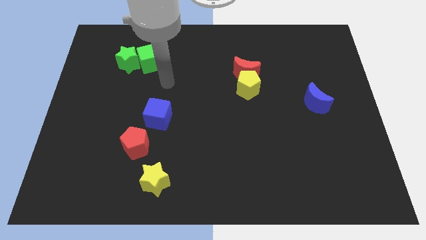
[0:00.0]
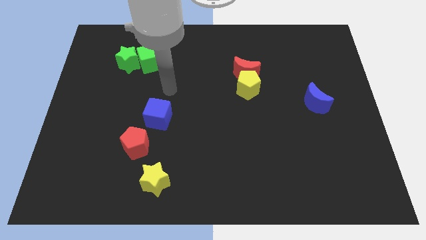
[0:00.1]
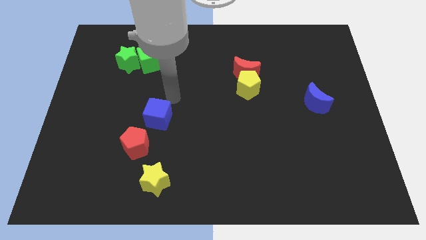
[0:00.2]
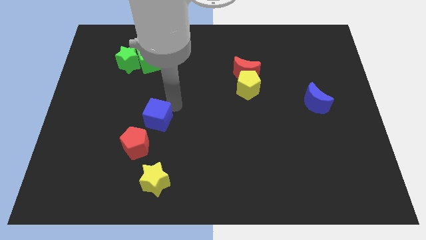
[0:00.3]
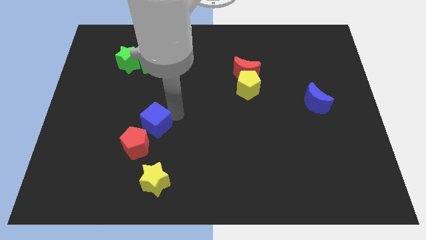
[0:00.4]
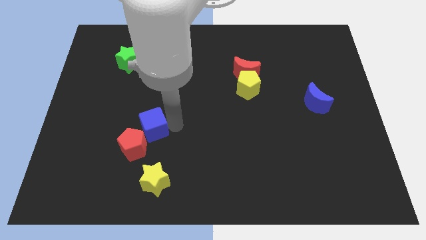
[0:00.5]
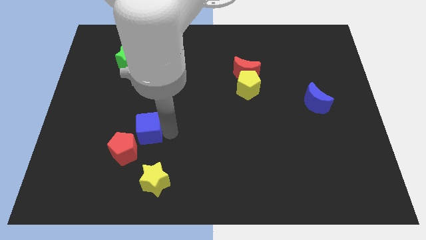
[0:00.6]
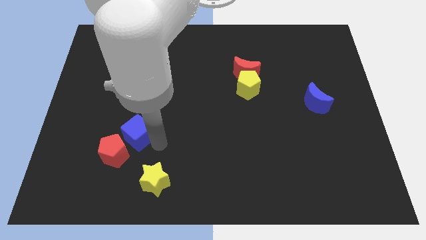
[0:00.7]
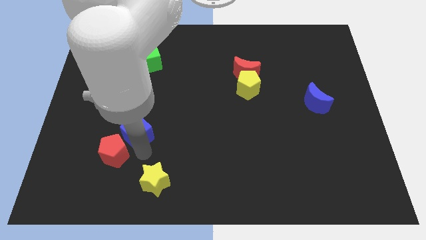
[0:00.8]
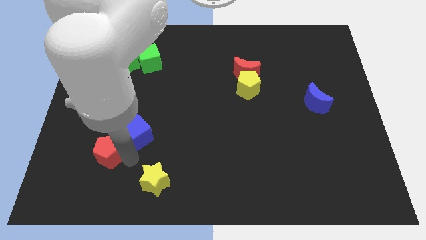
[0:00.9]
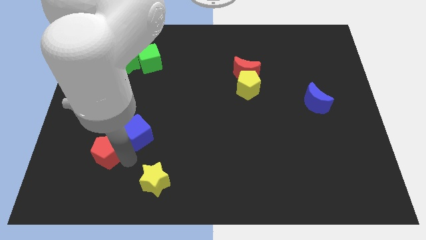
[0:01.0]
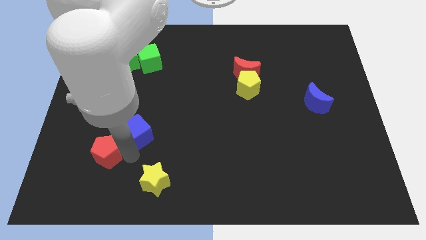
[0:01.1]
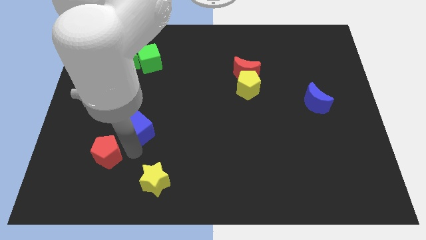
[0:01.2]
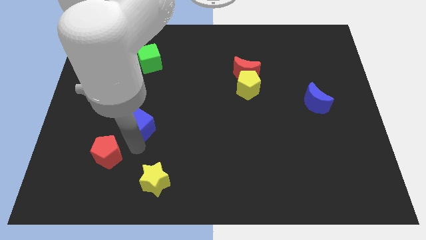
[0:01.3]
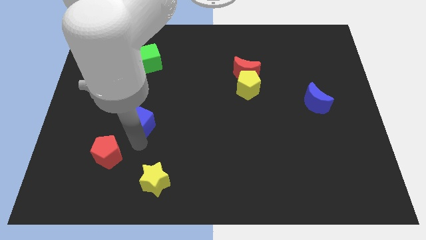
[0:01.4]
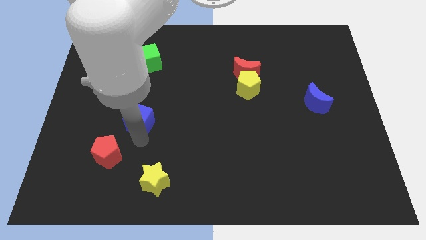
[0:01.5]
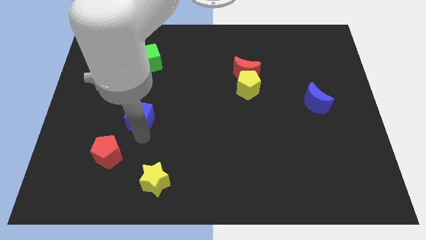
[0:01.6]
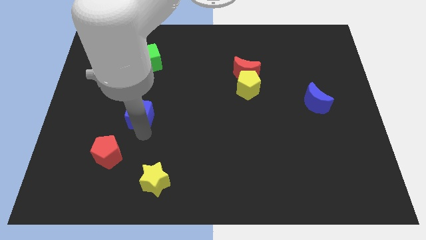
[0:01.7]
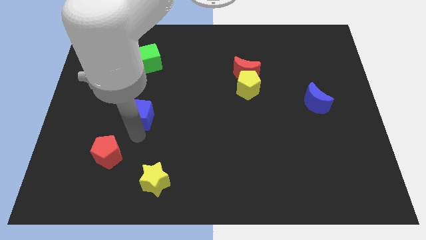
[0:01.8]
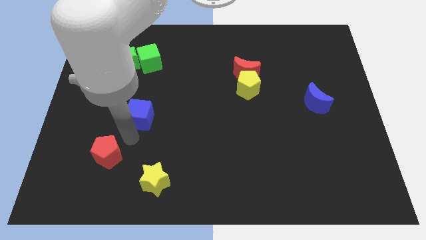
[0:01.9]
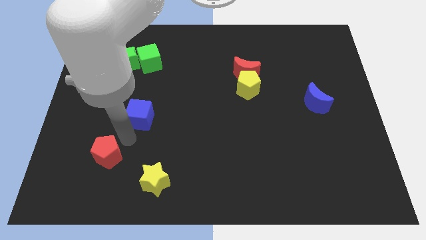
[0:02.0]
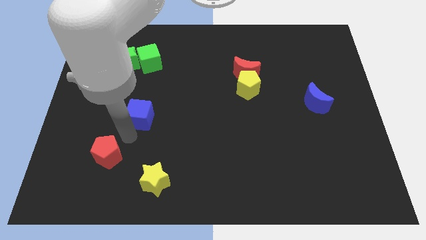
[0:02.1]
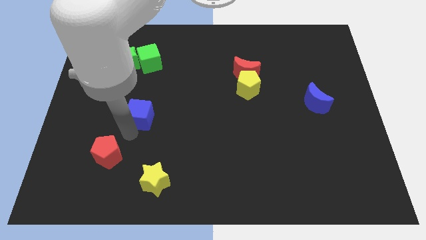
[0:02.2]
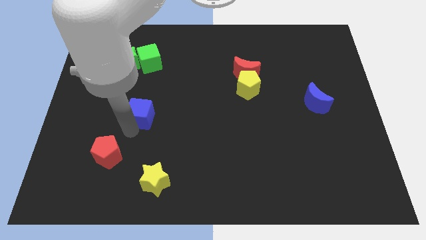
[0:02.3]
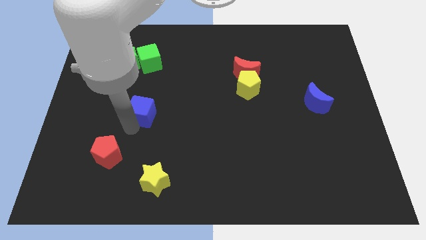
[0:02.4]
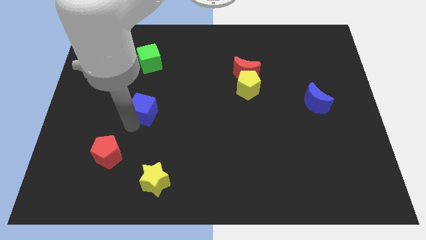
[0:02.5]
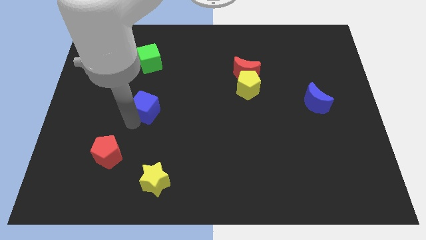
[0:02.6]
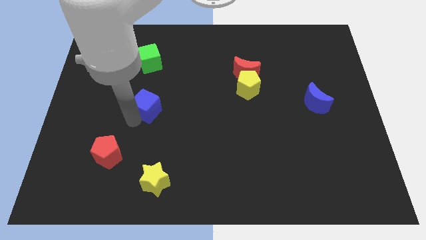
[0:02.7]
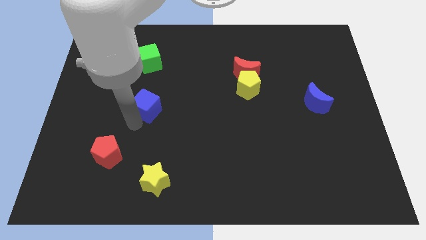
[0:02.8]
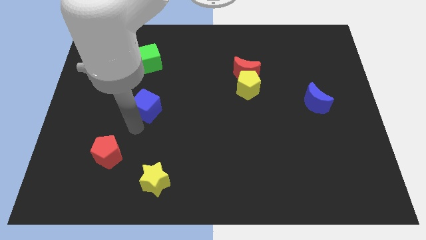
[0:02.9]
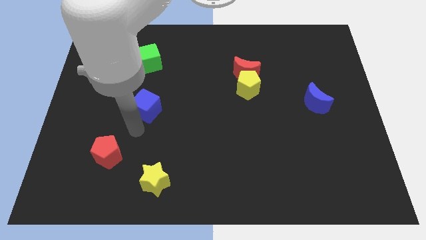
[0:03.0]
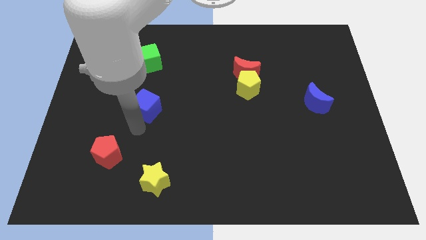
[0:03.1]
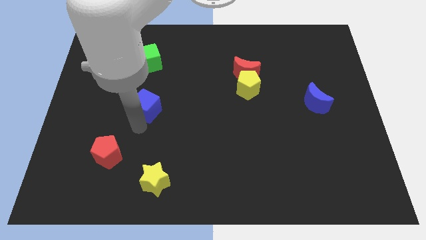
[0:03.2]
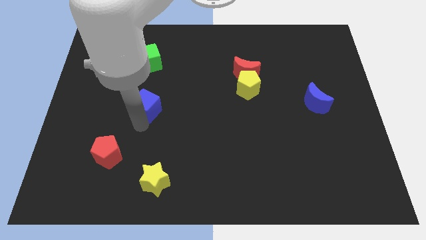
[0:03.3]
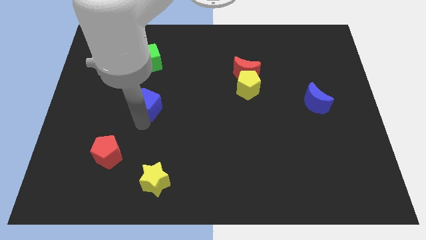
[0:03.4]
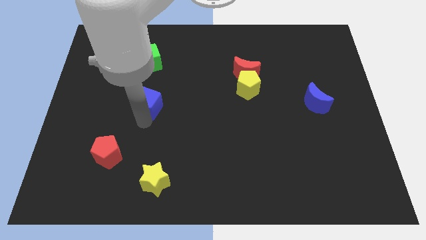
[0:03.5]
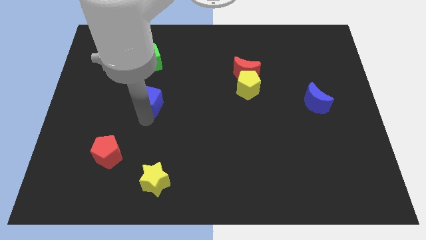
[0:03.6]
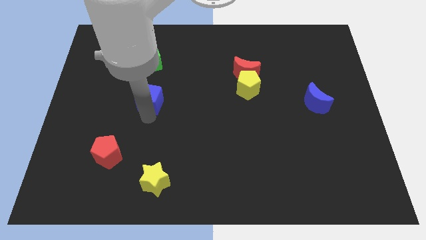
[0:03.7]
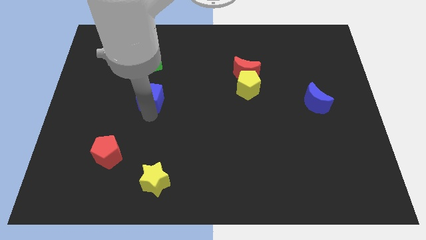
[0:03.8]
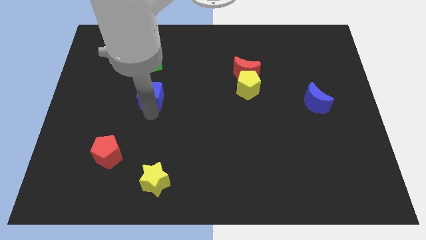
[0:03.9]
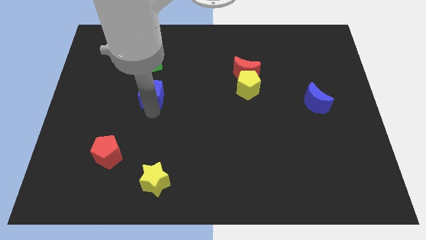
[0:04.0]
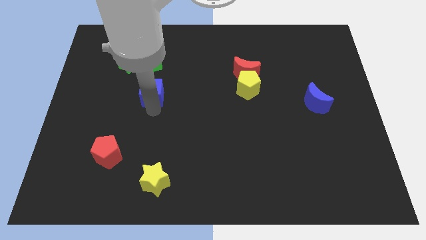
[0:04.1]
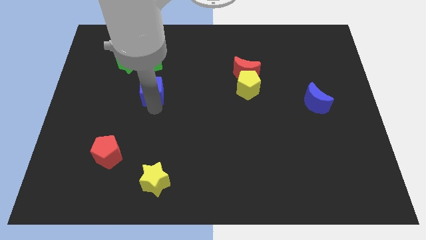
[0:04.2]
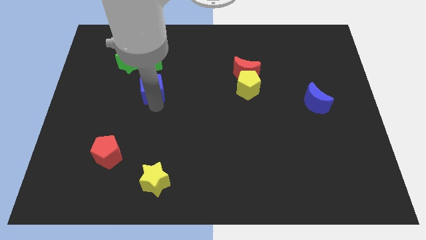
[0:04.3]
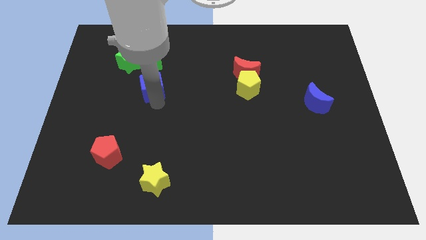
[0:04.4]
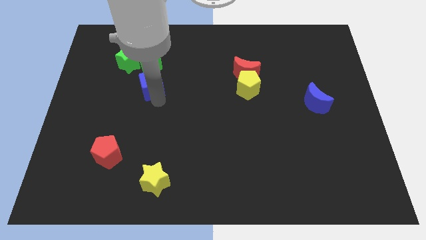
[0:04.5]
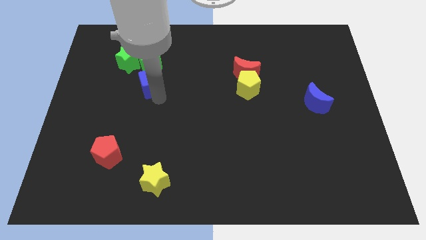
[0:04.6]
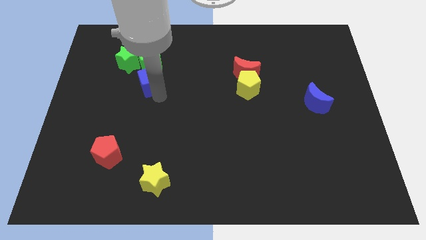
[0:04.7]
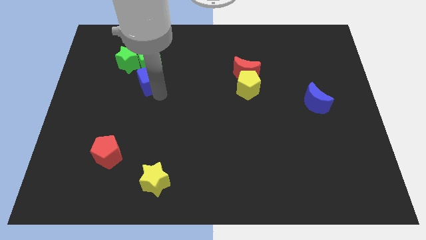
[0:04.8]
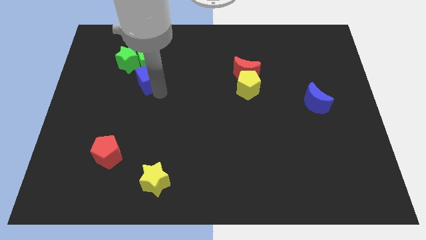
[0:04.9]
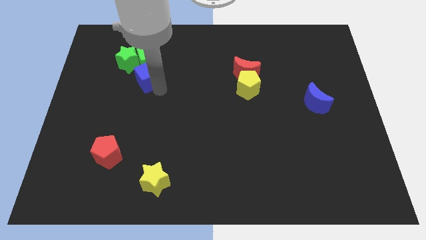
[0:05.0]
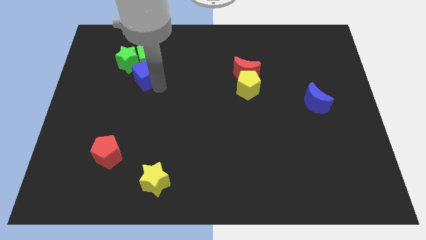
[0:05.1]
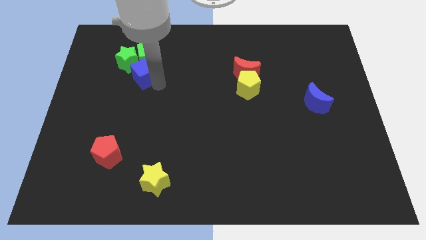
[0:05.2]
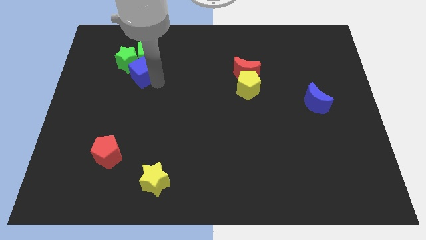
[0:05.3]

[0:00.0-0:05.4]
put the blue cube towards the green star
